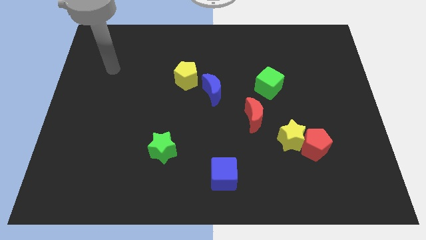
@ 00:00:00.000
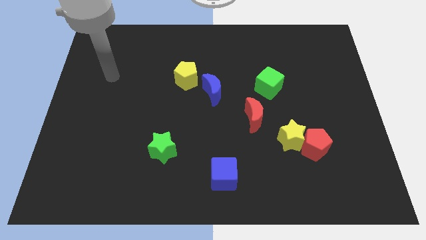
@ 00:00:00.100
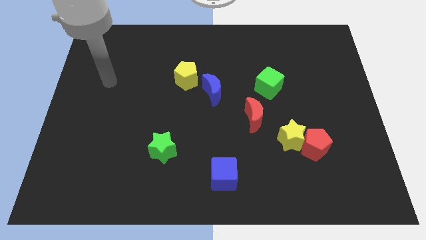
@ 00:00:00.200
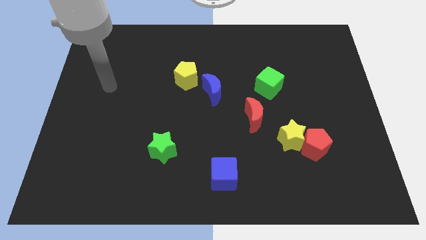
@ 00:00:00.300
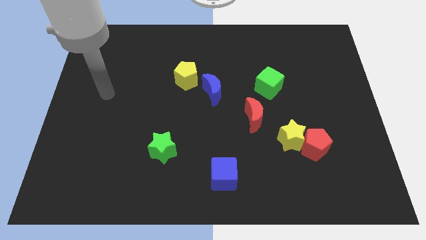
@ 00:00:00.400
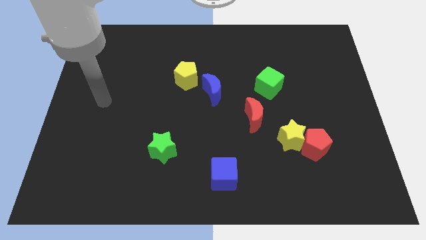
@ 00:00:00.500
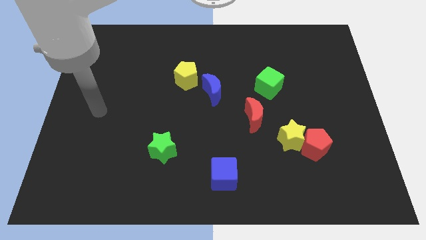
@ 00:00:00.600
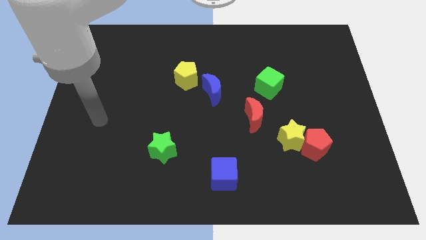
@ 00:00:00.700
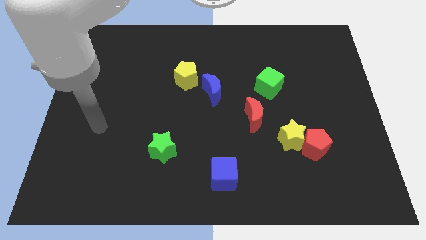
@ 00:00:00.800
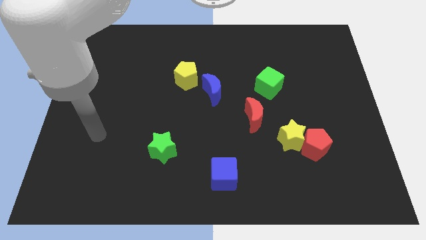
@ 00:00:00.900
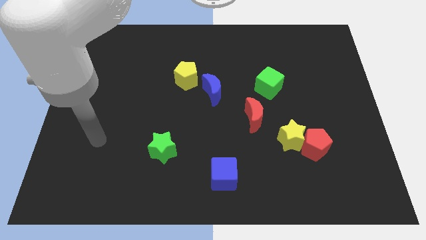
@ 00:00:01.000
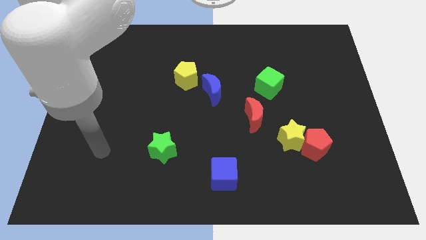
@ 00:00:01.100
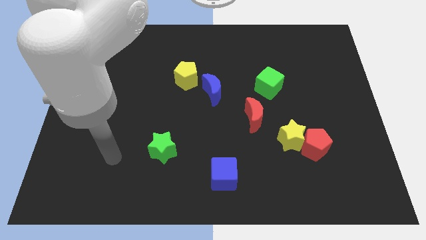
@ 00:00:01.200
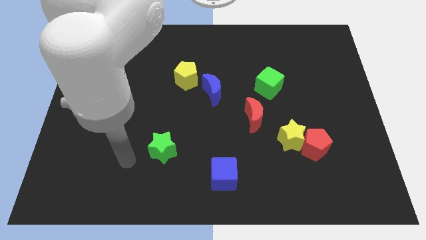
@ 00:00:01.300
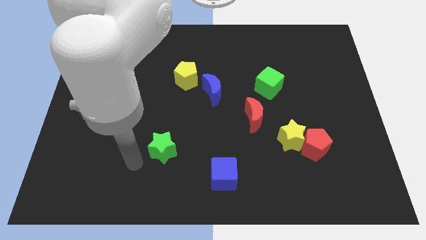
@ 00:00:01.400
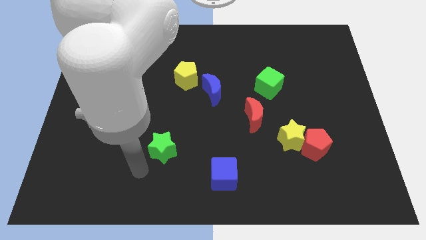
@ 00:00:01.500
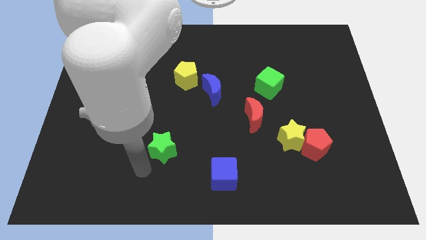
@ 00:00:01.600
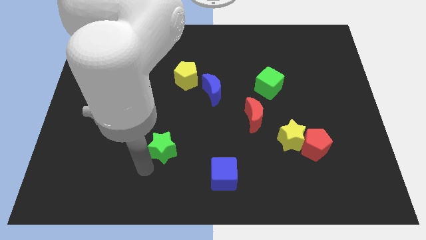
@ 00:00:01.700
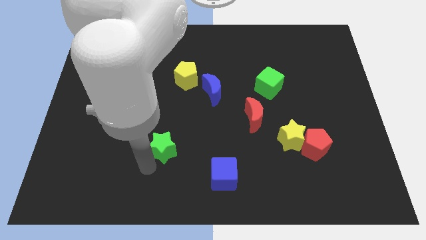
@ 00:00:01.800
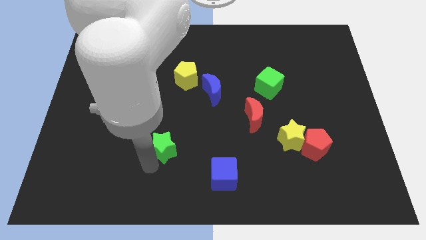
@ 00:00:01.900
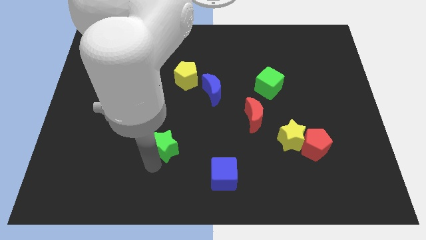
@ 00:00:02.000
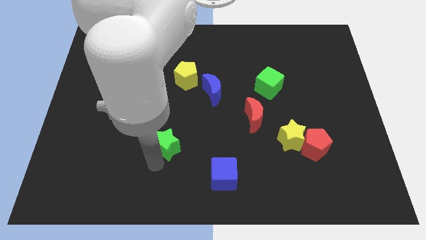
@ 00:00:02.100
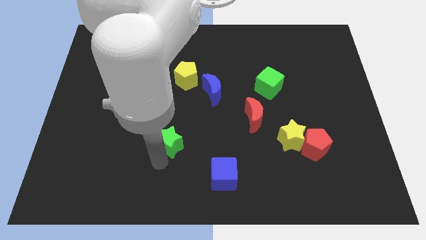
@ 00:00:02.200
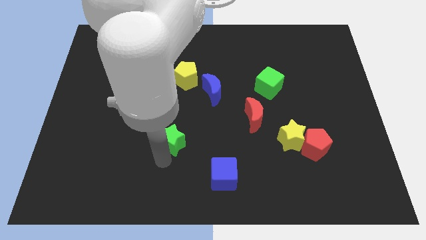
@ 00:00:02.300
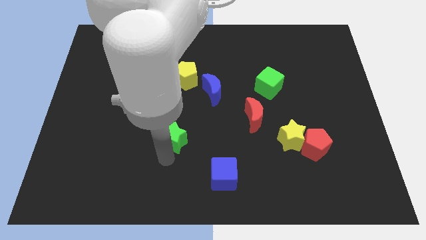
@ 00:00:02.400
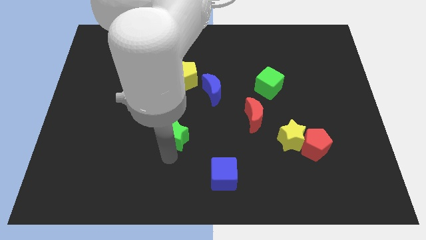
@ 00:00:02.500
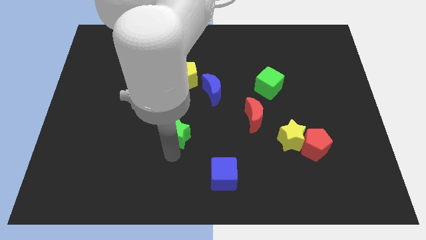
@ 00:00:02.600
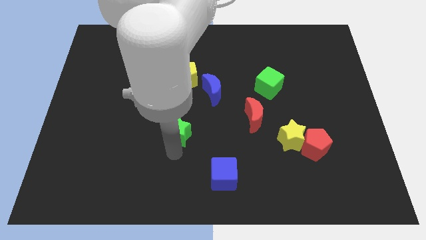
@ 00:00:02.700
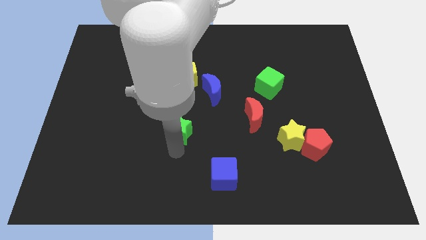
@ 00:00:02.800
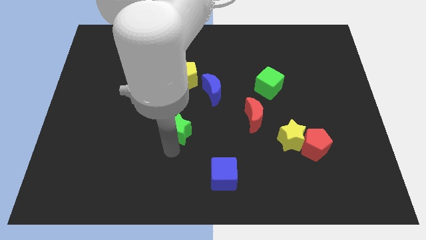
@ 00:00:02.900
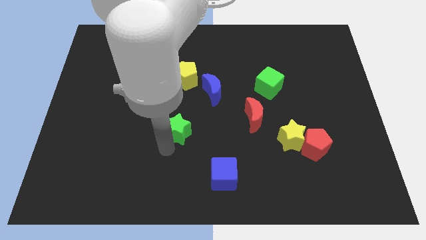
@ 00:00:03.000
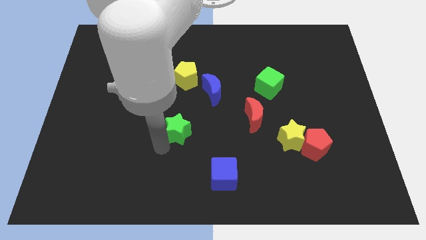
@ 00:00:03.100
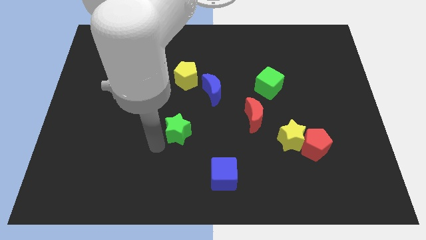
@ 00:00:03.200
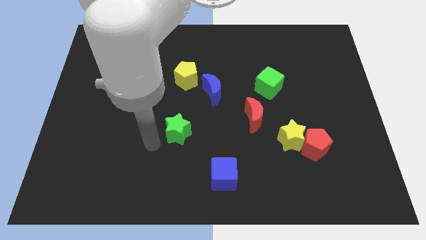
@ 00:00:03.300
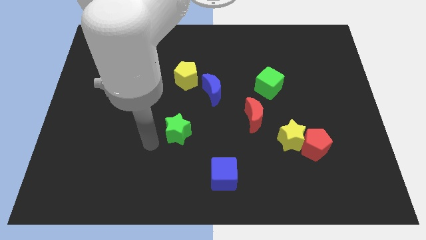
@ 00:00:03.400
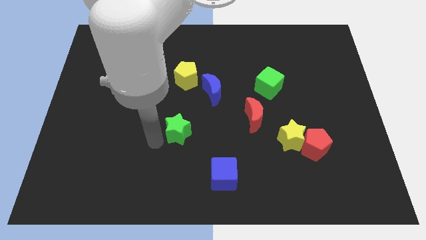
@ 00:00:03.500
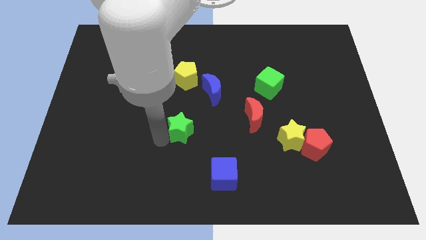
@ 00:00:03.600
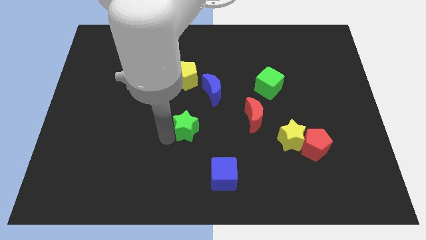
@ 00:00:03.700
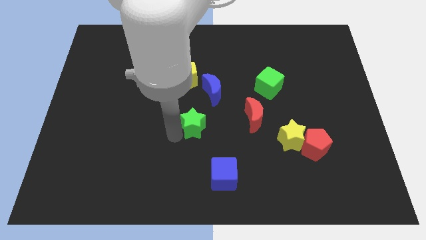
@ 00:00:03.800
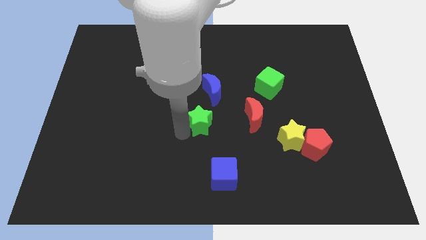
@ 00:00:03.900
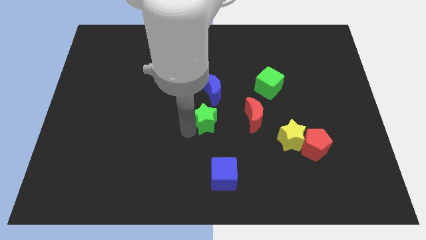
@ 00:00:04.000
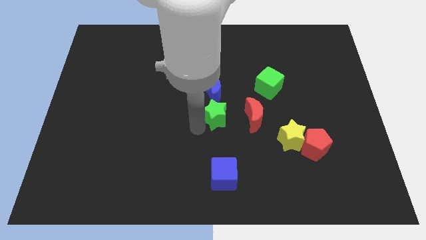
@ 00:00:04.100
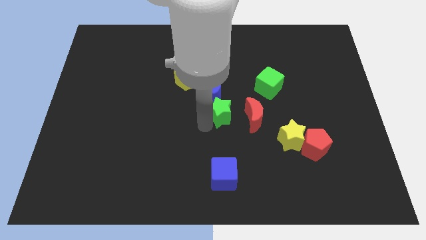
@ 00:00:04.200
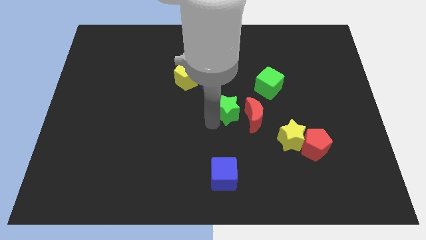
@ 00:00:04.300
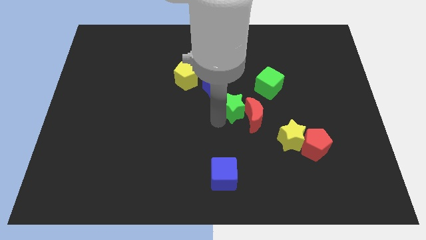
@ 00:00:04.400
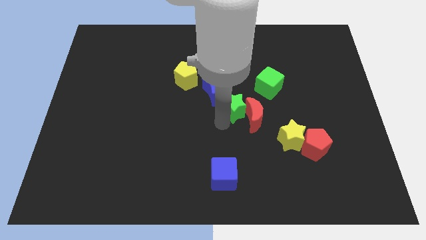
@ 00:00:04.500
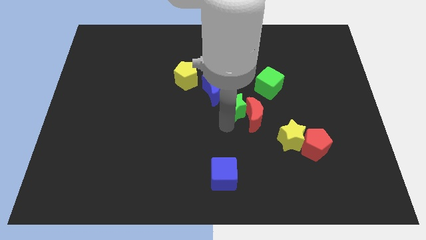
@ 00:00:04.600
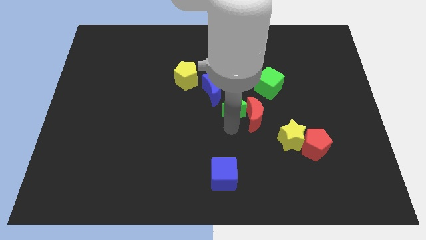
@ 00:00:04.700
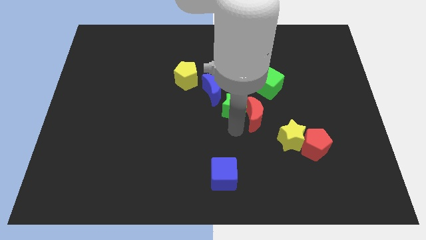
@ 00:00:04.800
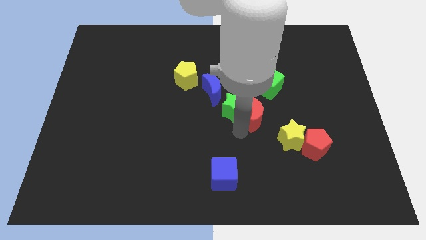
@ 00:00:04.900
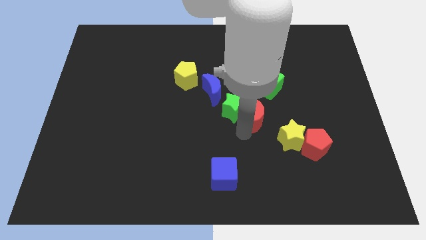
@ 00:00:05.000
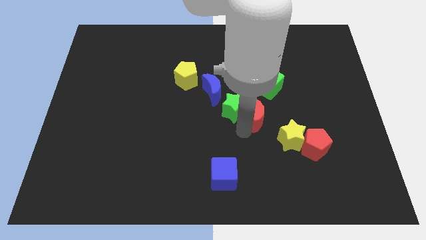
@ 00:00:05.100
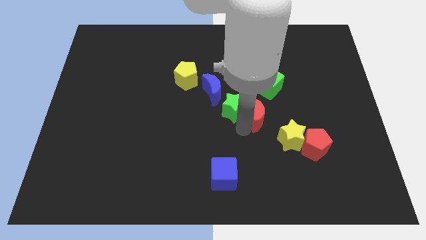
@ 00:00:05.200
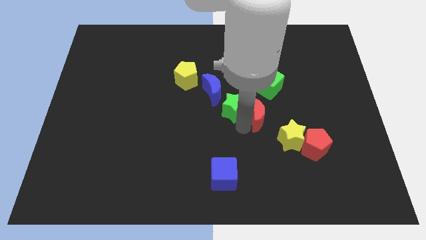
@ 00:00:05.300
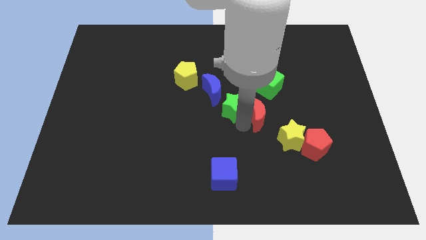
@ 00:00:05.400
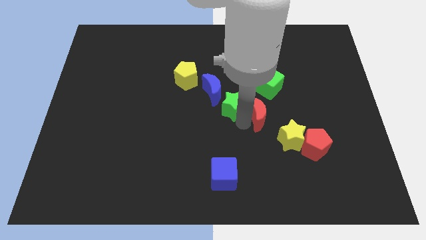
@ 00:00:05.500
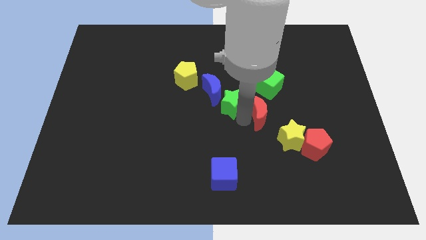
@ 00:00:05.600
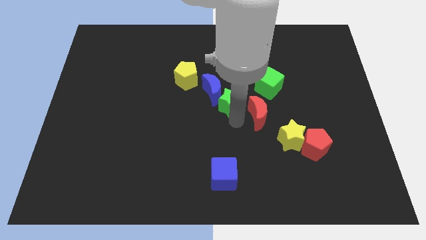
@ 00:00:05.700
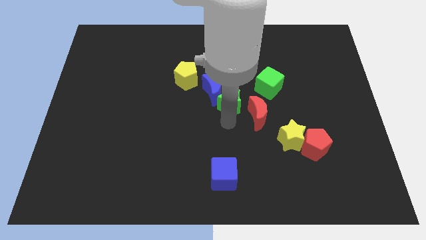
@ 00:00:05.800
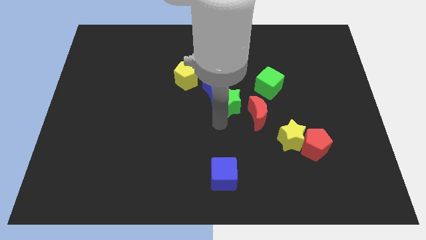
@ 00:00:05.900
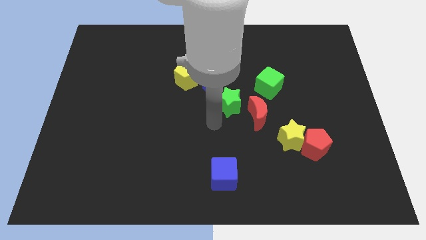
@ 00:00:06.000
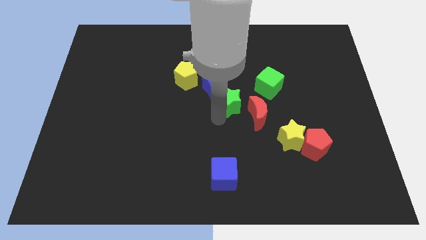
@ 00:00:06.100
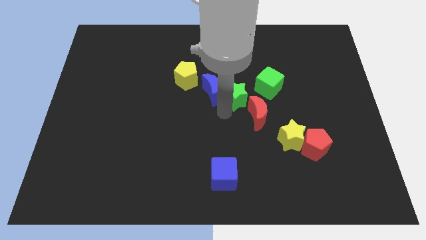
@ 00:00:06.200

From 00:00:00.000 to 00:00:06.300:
push the green star up and then right

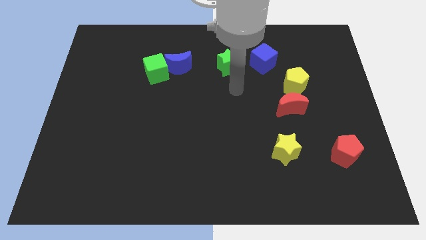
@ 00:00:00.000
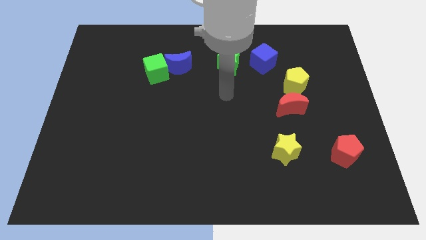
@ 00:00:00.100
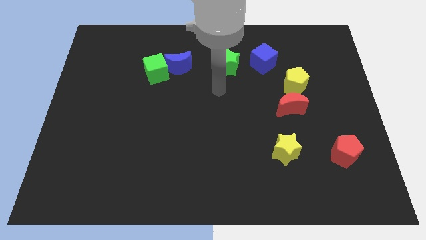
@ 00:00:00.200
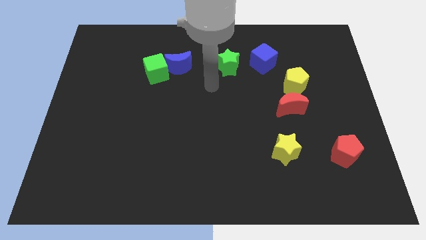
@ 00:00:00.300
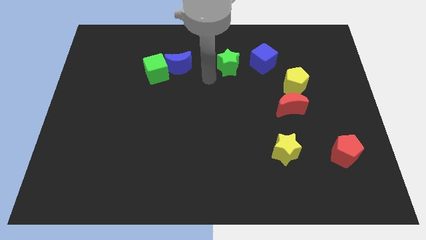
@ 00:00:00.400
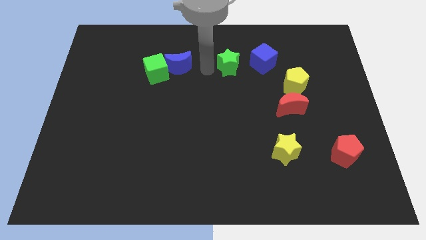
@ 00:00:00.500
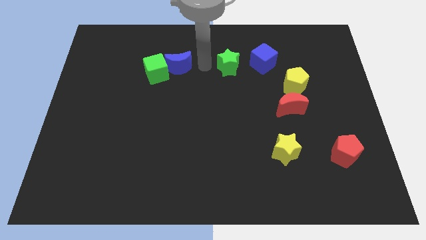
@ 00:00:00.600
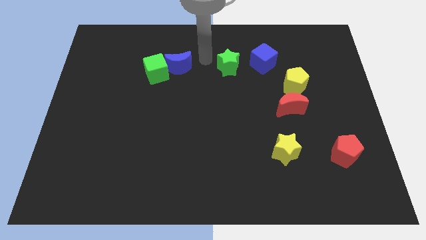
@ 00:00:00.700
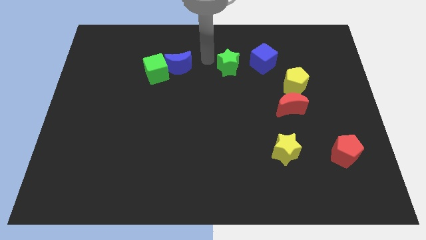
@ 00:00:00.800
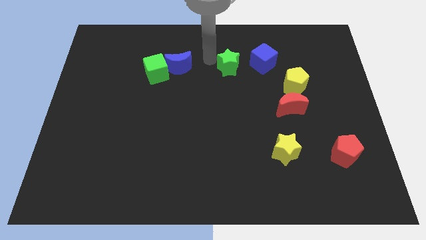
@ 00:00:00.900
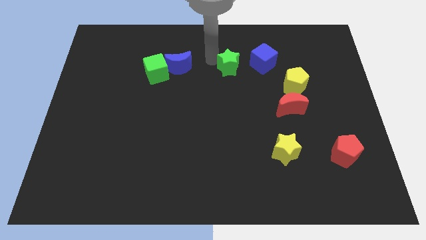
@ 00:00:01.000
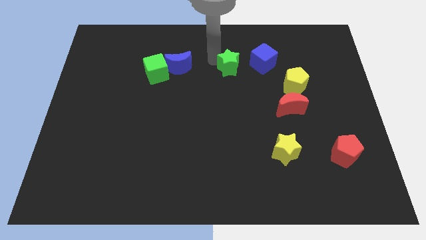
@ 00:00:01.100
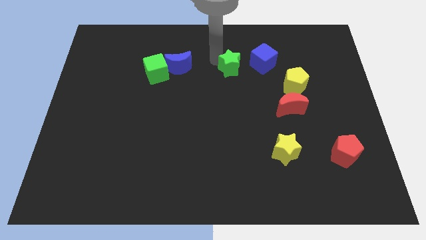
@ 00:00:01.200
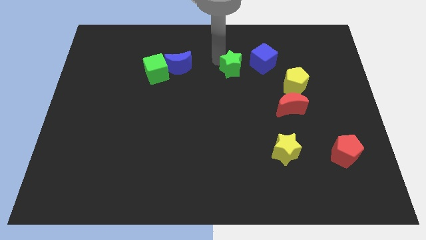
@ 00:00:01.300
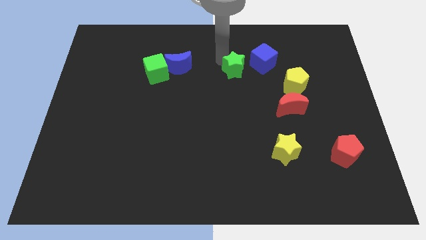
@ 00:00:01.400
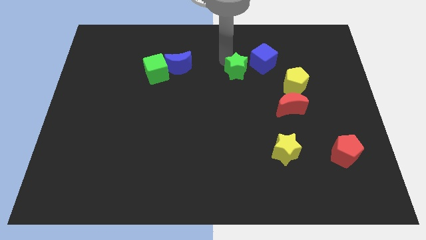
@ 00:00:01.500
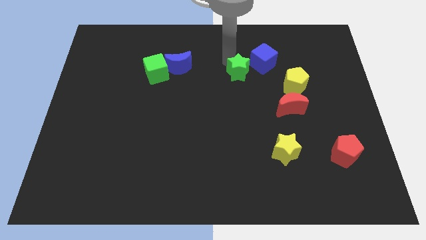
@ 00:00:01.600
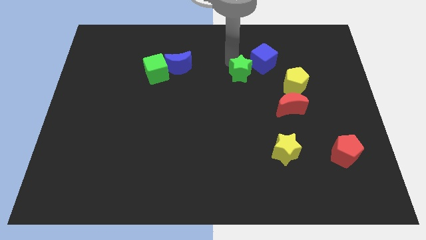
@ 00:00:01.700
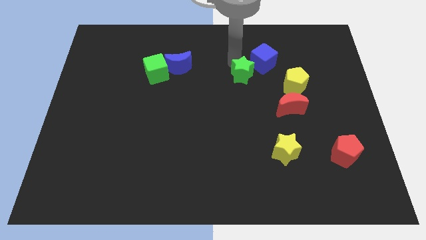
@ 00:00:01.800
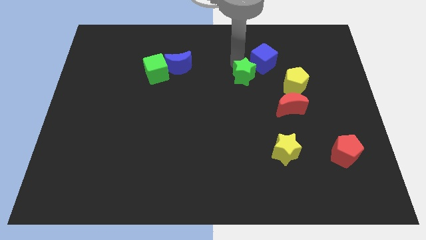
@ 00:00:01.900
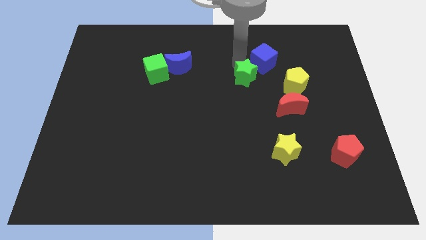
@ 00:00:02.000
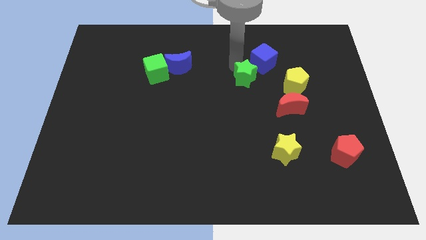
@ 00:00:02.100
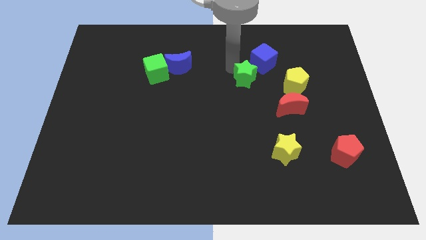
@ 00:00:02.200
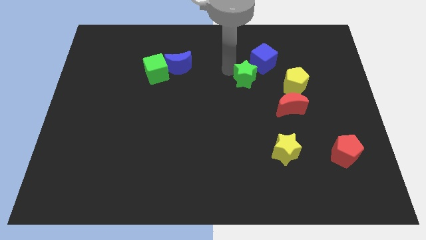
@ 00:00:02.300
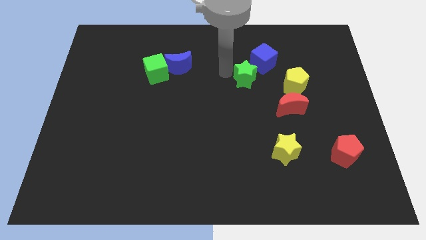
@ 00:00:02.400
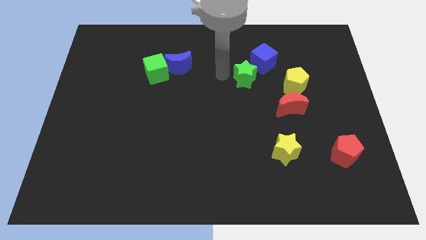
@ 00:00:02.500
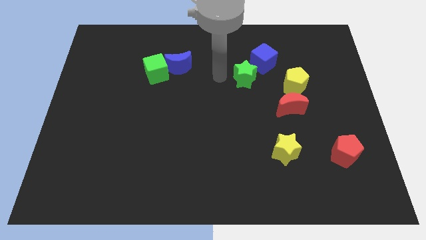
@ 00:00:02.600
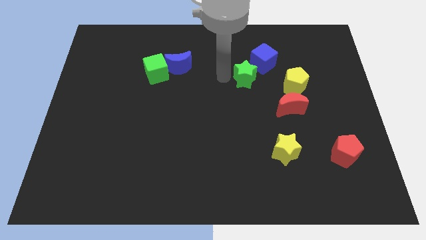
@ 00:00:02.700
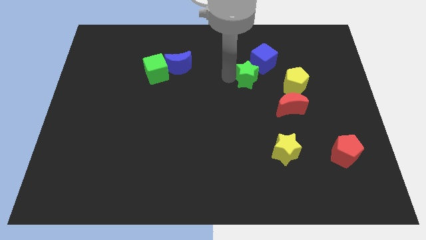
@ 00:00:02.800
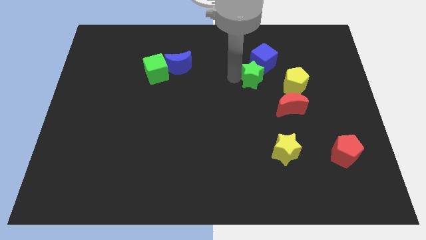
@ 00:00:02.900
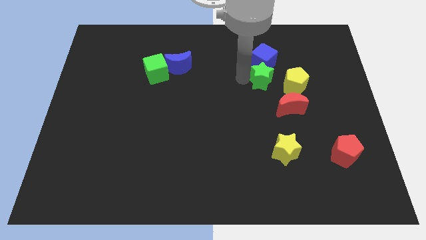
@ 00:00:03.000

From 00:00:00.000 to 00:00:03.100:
slightly move the green star to the right
